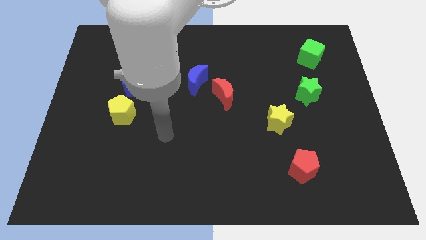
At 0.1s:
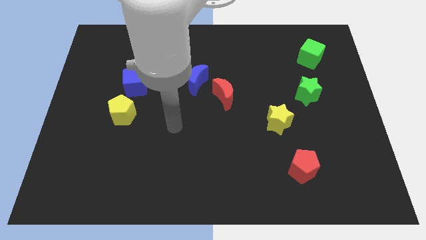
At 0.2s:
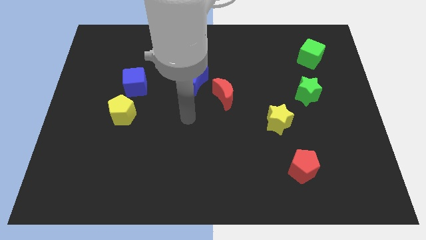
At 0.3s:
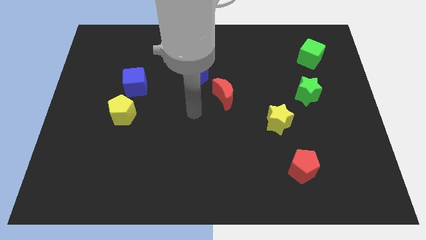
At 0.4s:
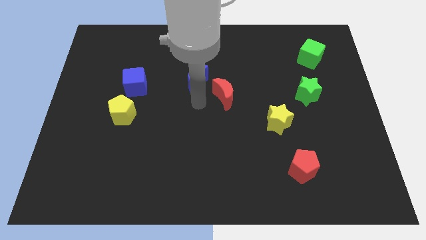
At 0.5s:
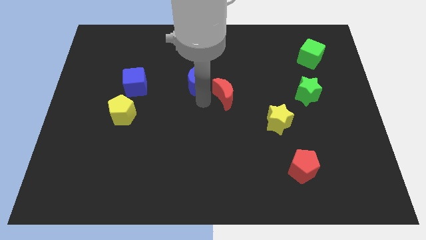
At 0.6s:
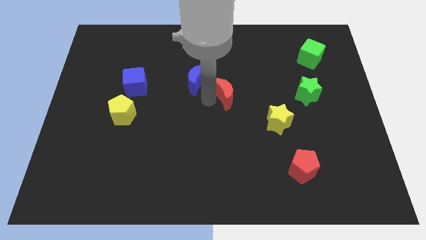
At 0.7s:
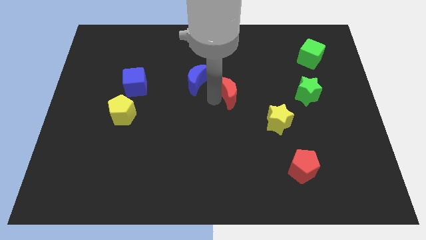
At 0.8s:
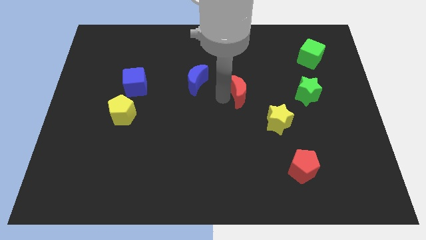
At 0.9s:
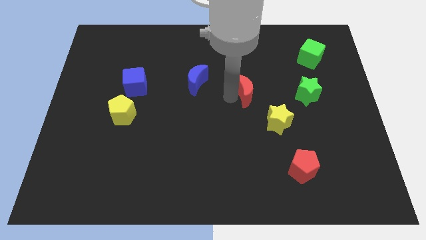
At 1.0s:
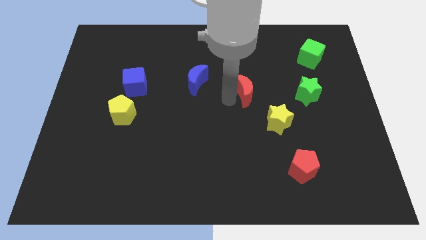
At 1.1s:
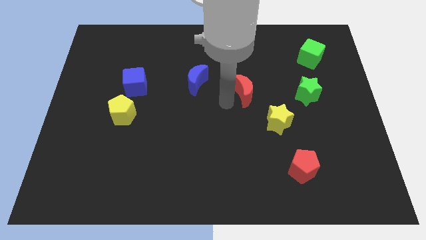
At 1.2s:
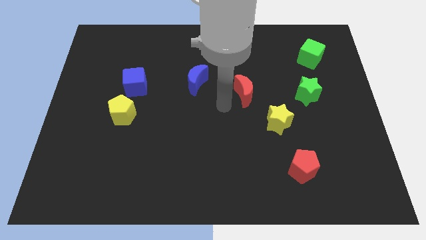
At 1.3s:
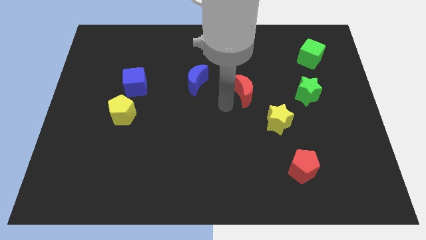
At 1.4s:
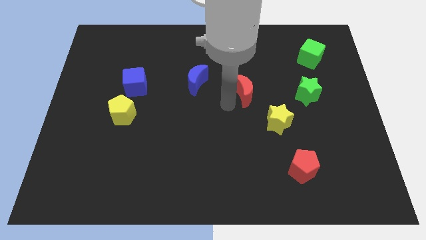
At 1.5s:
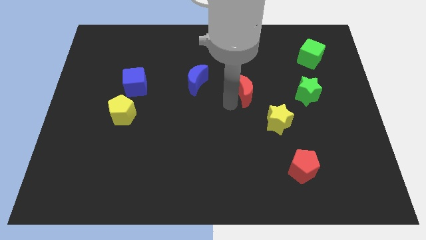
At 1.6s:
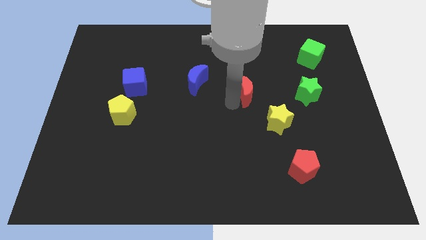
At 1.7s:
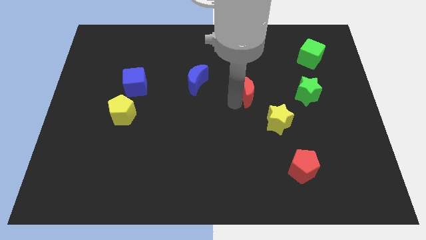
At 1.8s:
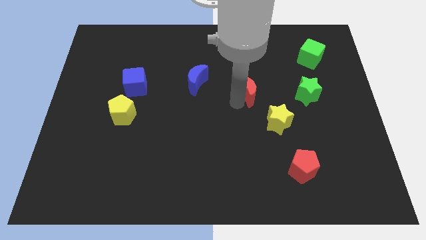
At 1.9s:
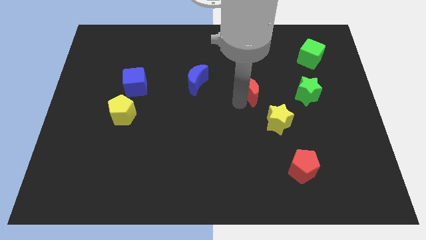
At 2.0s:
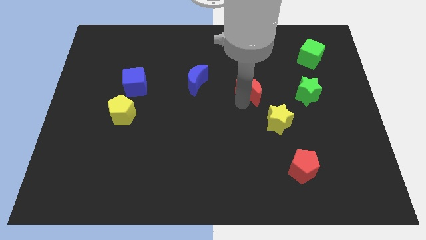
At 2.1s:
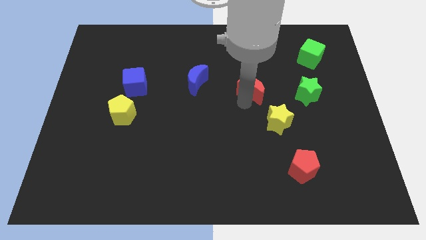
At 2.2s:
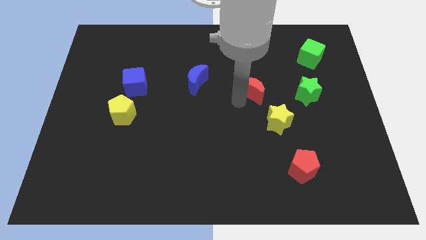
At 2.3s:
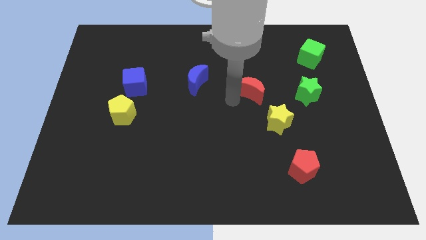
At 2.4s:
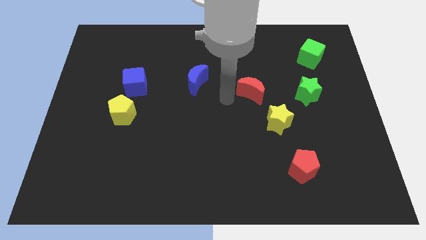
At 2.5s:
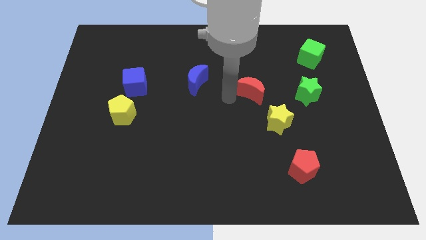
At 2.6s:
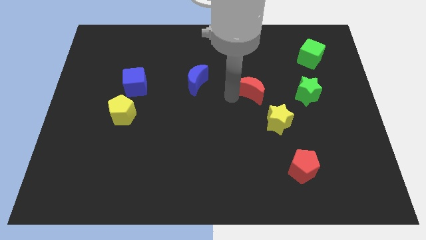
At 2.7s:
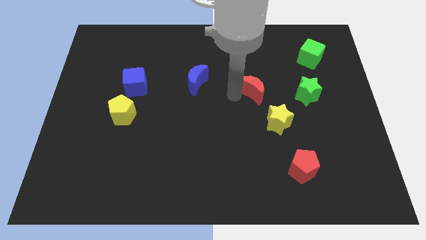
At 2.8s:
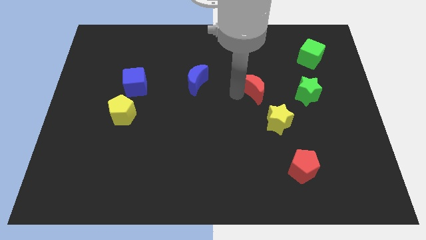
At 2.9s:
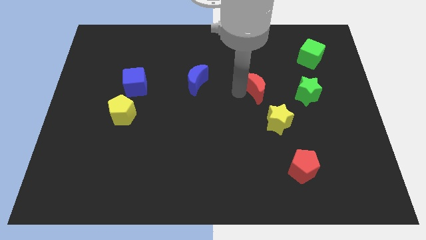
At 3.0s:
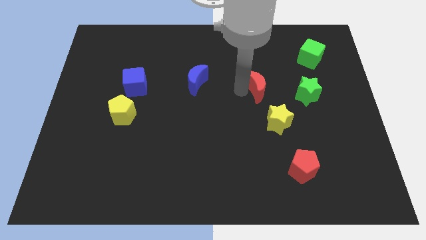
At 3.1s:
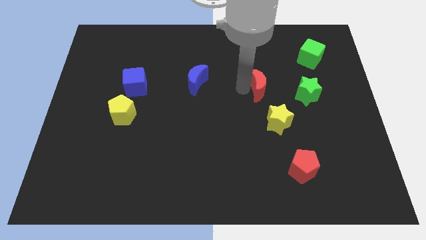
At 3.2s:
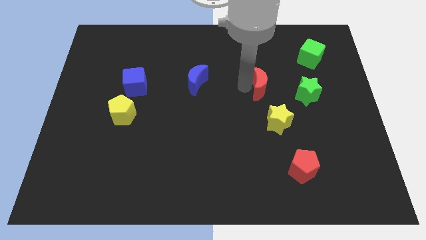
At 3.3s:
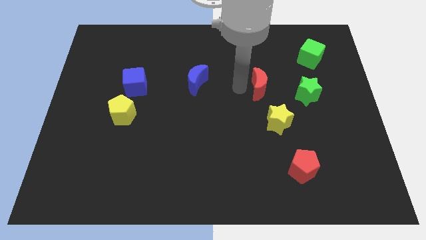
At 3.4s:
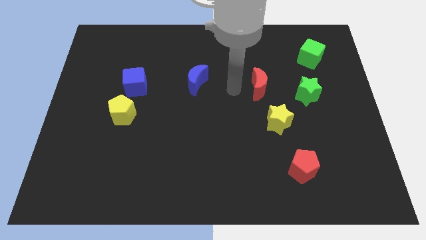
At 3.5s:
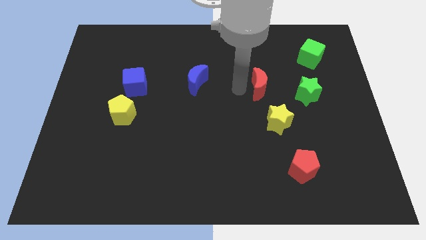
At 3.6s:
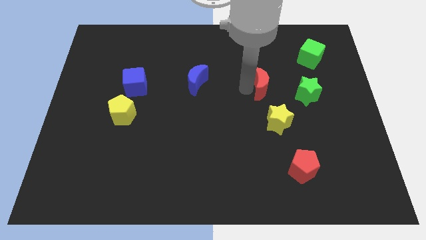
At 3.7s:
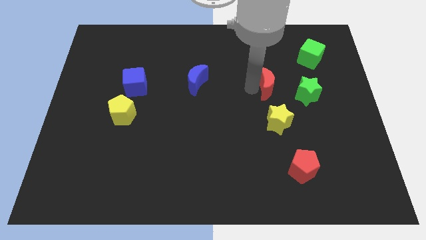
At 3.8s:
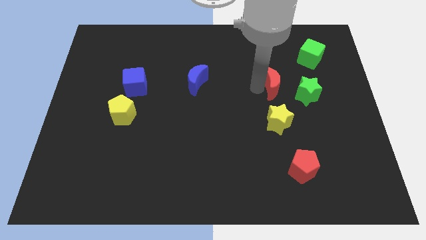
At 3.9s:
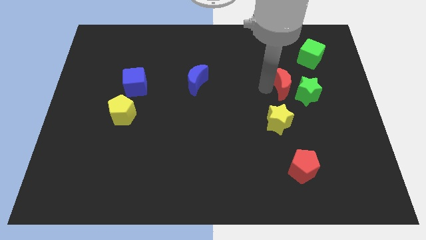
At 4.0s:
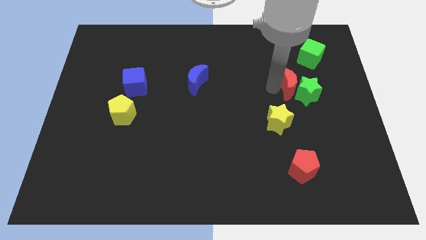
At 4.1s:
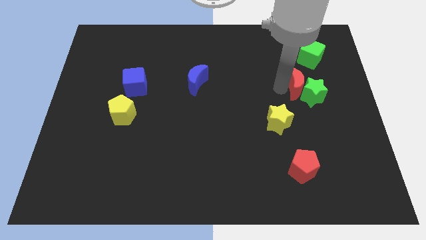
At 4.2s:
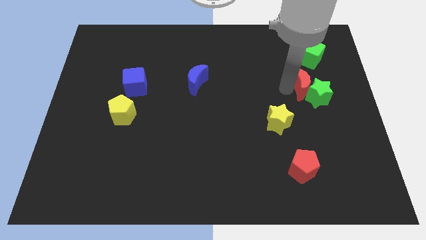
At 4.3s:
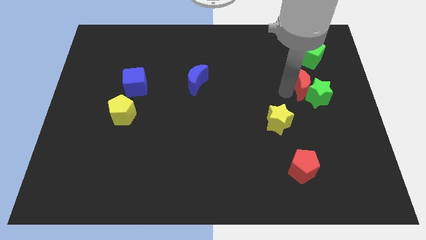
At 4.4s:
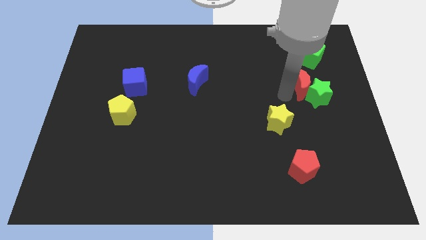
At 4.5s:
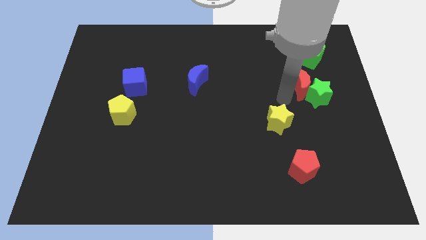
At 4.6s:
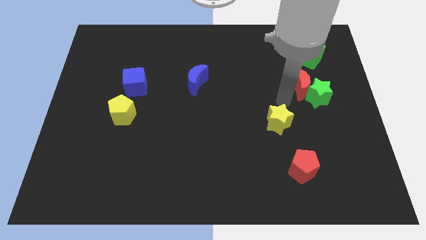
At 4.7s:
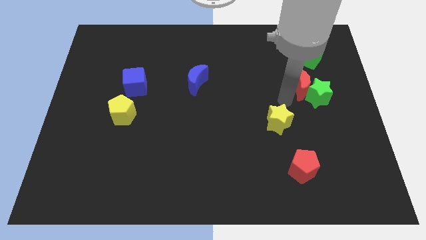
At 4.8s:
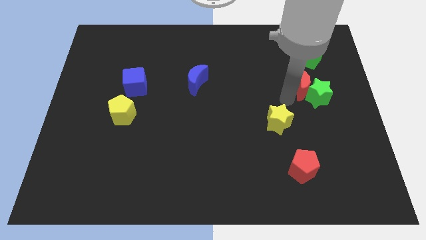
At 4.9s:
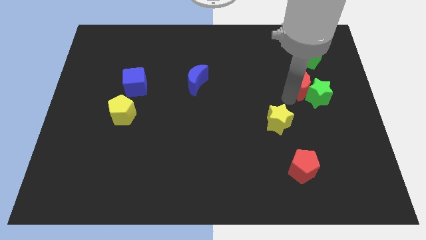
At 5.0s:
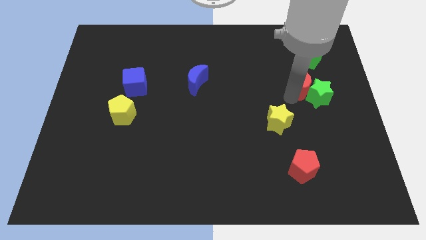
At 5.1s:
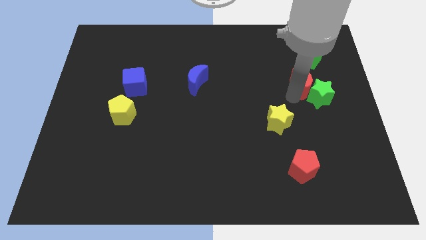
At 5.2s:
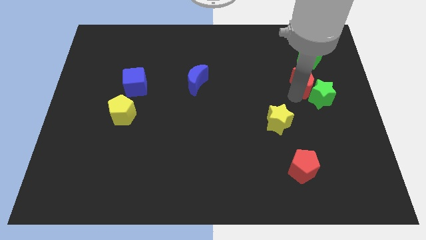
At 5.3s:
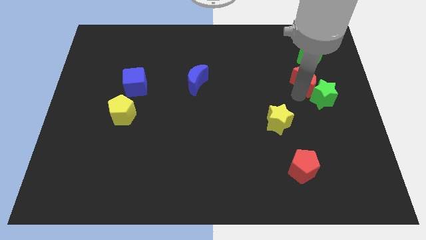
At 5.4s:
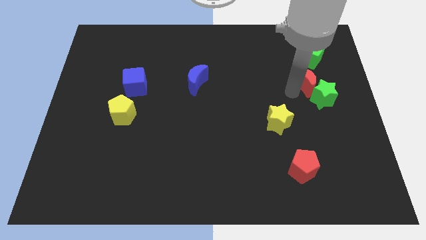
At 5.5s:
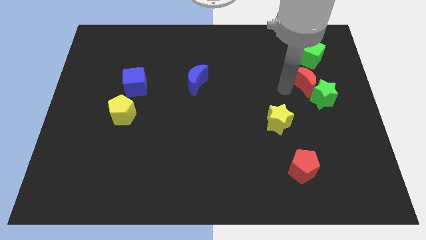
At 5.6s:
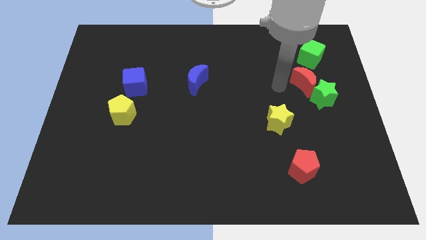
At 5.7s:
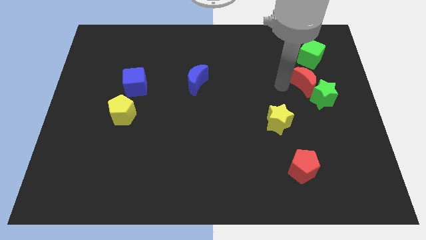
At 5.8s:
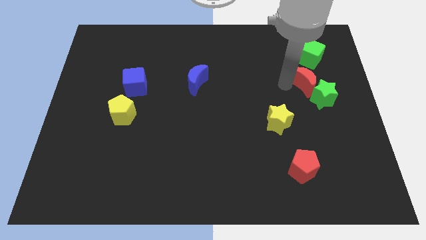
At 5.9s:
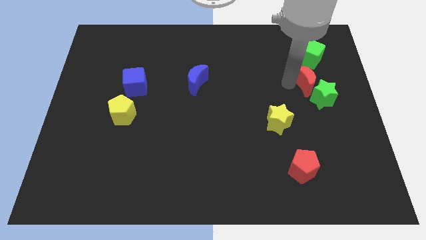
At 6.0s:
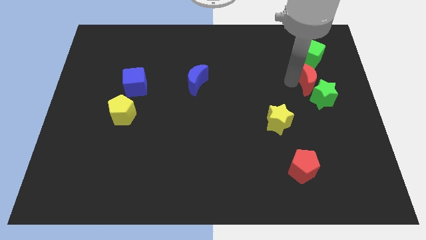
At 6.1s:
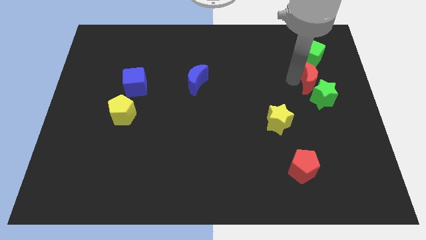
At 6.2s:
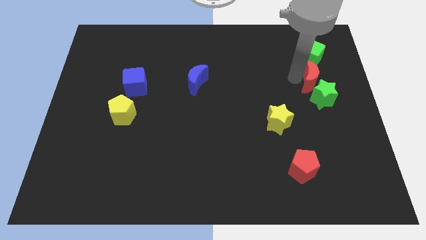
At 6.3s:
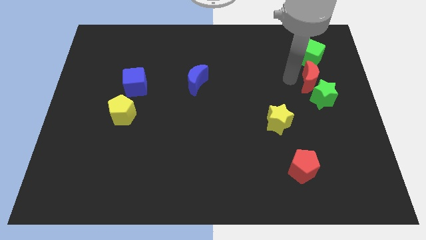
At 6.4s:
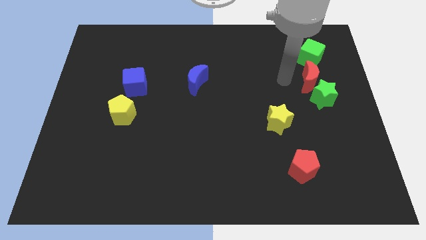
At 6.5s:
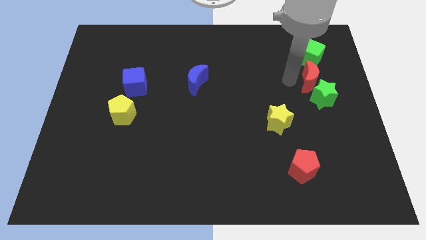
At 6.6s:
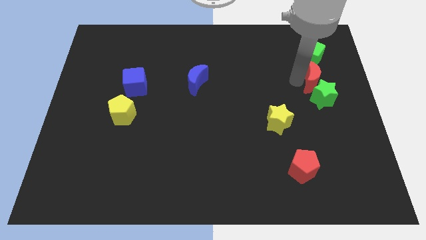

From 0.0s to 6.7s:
put the red moon to the top right side of the green star

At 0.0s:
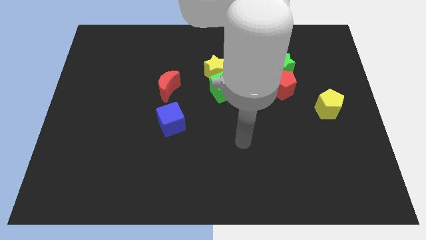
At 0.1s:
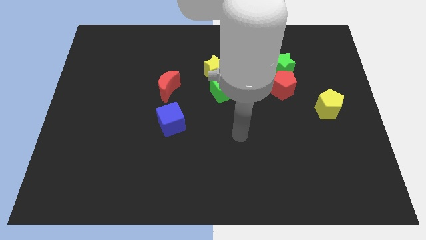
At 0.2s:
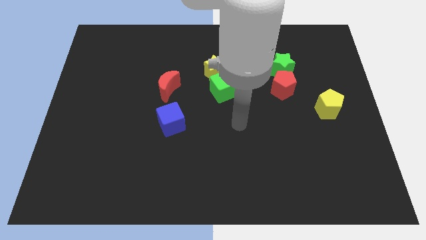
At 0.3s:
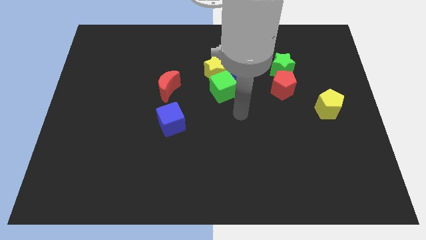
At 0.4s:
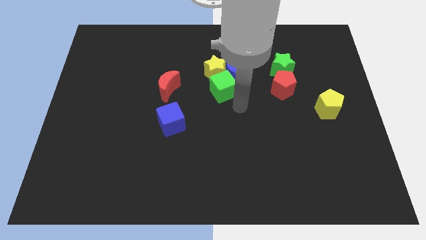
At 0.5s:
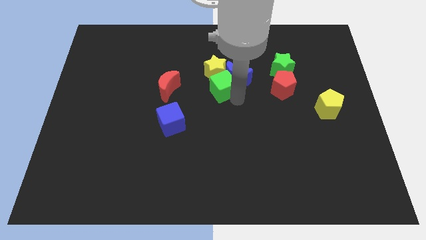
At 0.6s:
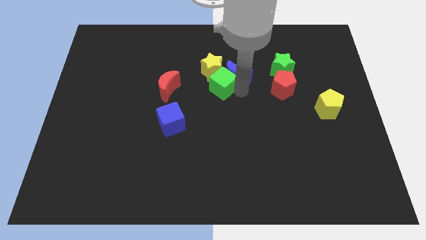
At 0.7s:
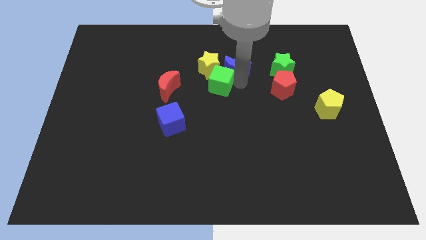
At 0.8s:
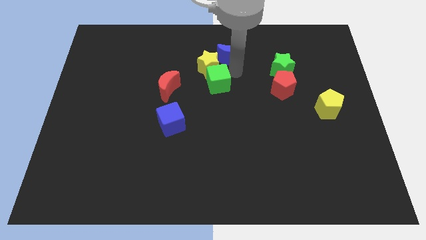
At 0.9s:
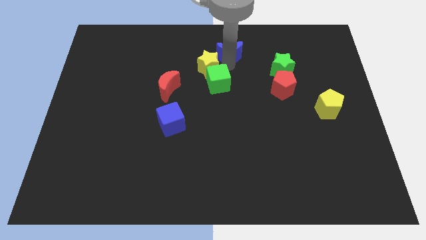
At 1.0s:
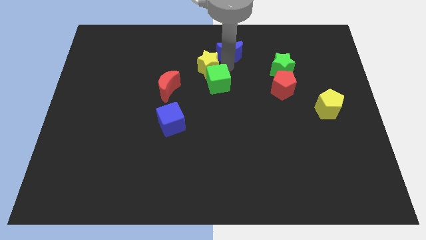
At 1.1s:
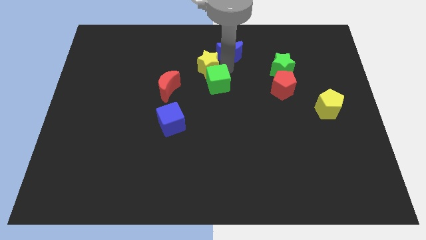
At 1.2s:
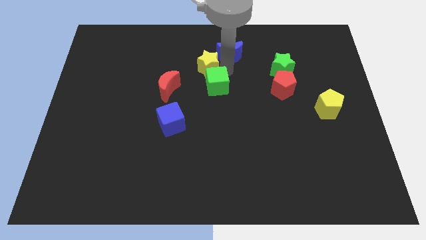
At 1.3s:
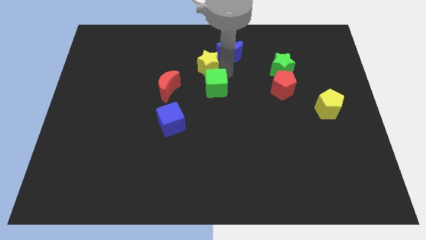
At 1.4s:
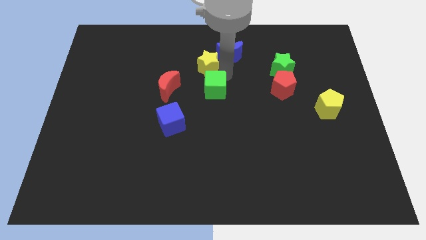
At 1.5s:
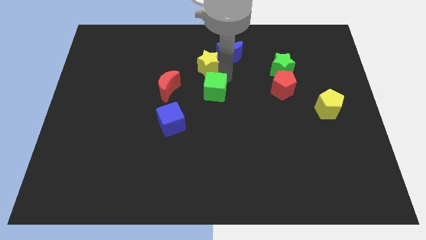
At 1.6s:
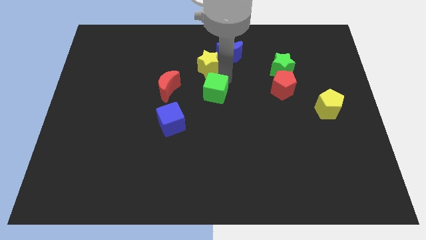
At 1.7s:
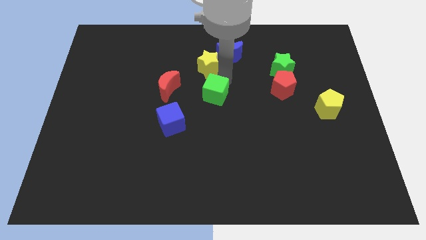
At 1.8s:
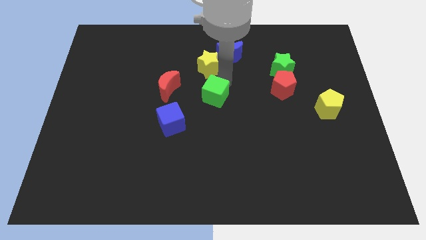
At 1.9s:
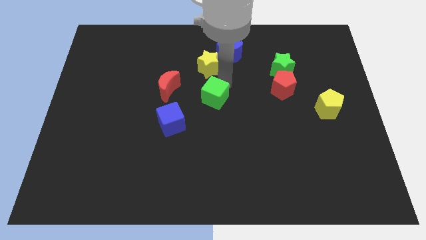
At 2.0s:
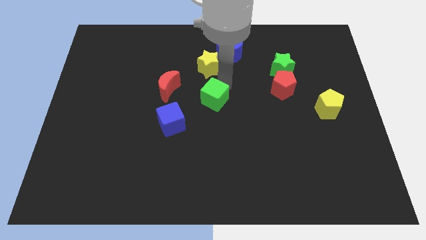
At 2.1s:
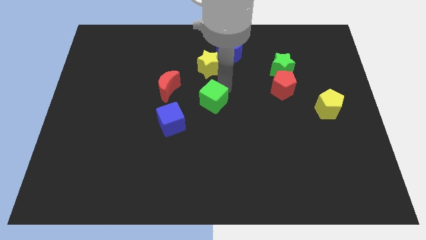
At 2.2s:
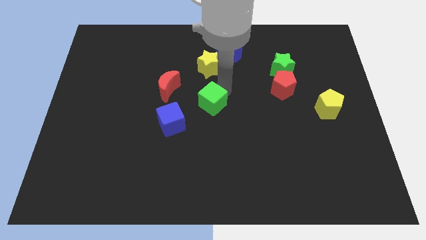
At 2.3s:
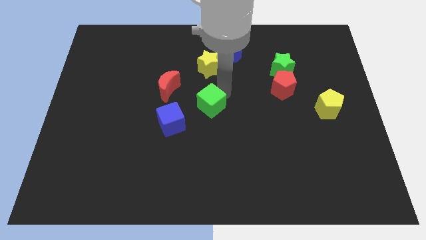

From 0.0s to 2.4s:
slide the green cube to the bottom right side of the red moon
